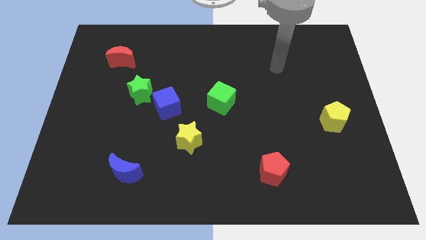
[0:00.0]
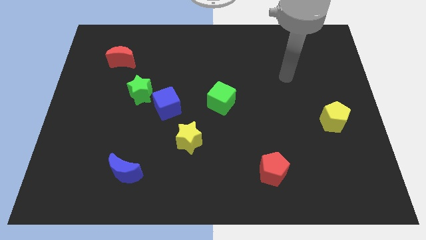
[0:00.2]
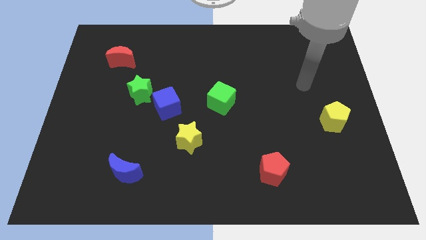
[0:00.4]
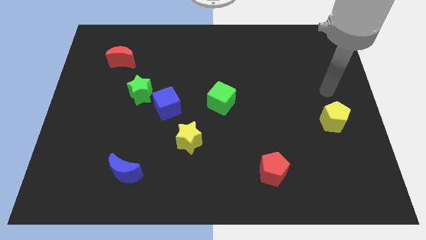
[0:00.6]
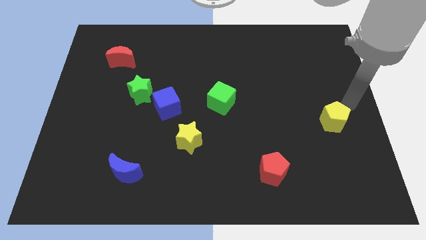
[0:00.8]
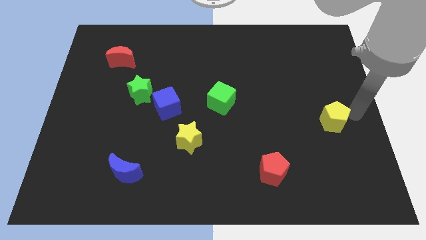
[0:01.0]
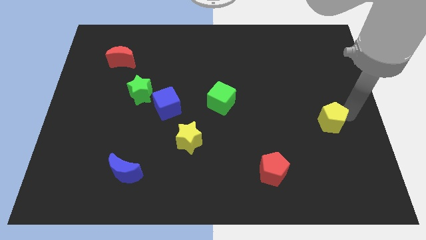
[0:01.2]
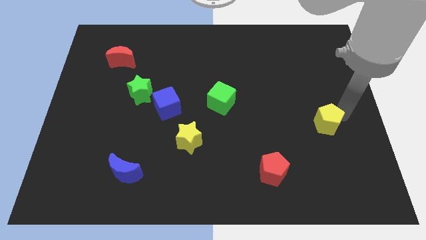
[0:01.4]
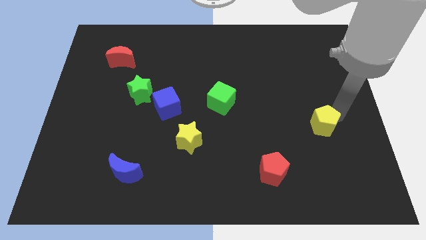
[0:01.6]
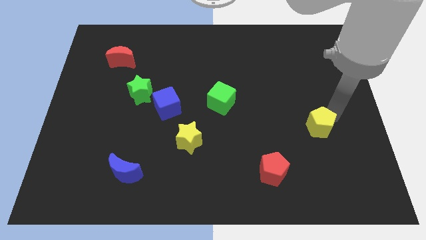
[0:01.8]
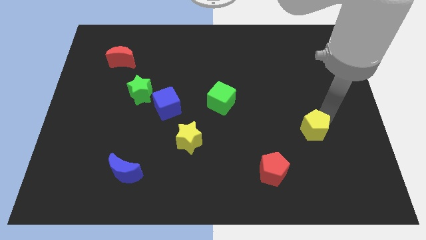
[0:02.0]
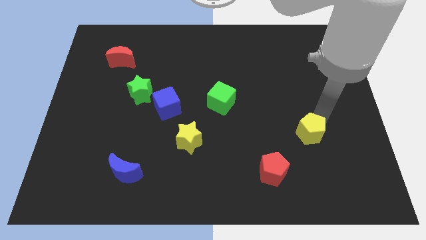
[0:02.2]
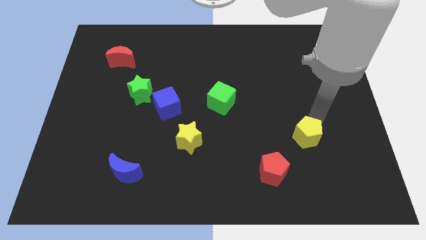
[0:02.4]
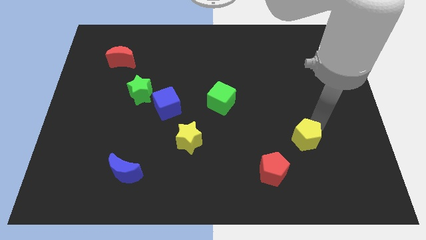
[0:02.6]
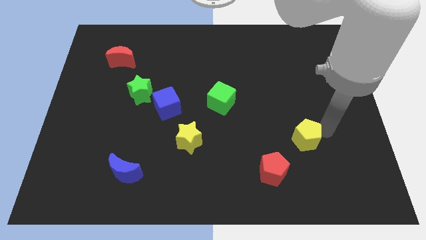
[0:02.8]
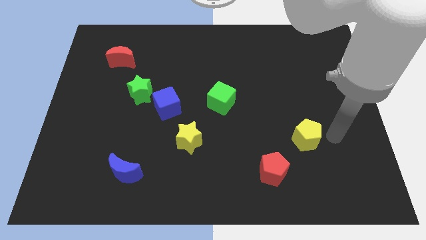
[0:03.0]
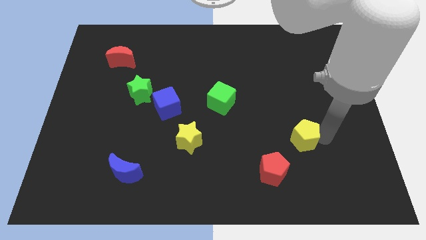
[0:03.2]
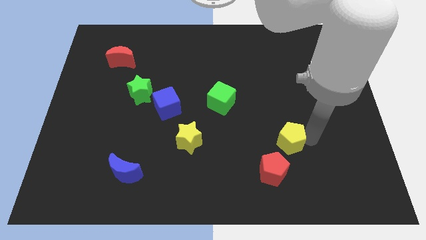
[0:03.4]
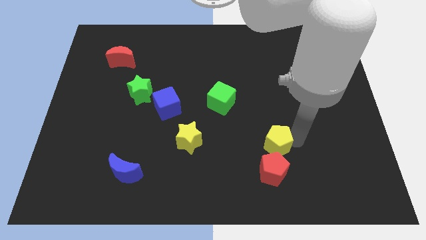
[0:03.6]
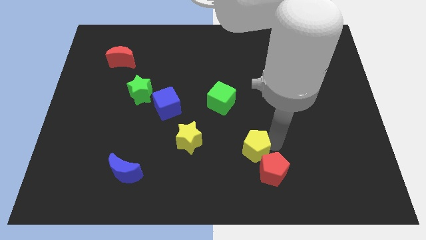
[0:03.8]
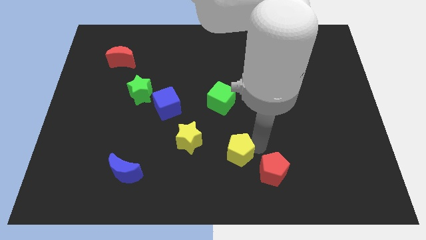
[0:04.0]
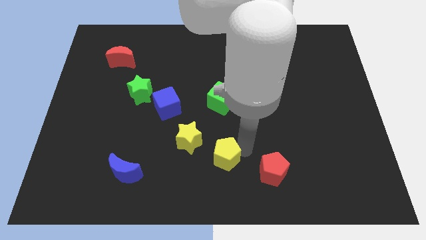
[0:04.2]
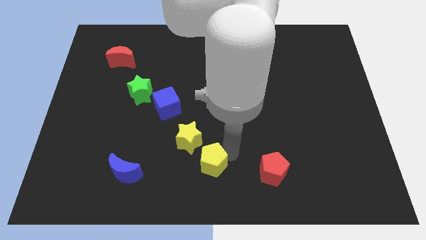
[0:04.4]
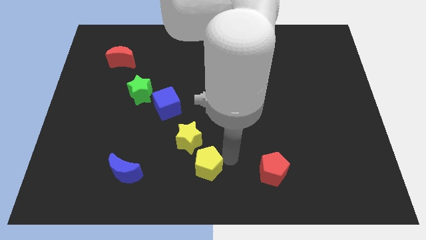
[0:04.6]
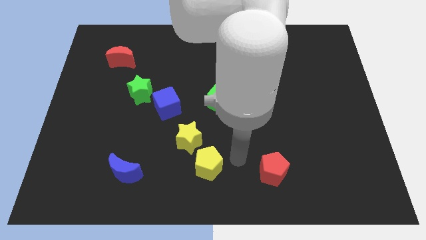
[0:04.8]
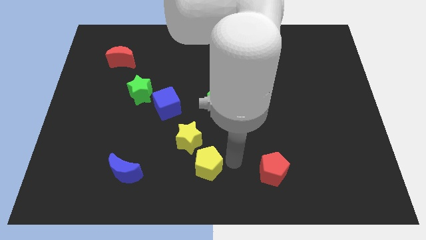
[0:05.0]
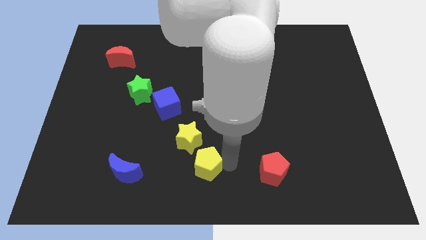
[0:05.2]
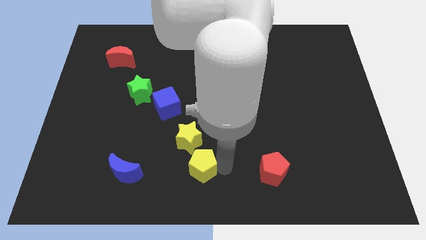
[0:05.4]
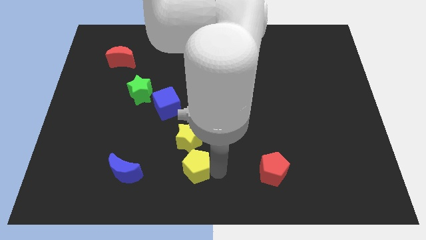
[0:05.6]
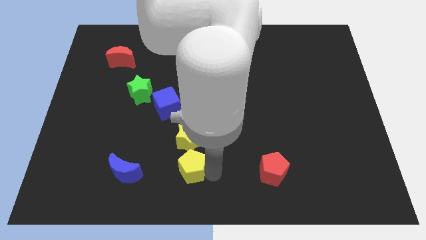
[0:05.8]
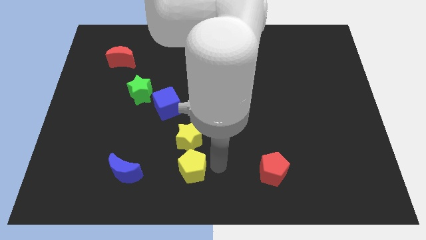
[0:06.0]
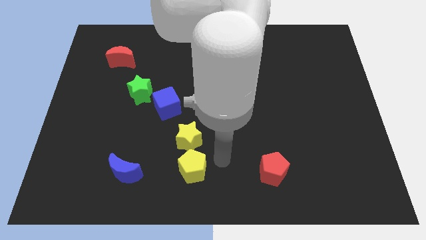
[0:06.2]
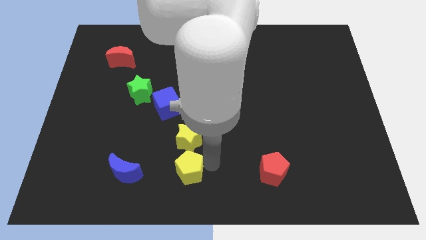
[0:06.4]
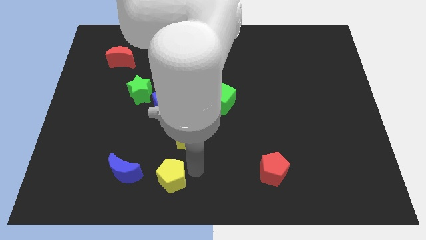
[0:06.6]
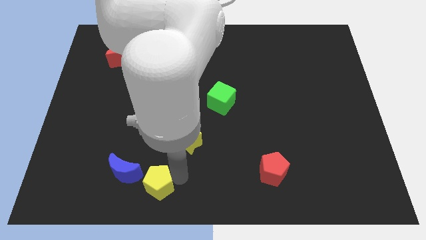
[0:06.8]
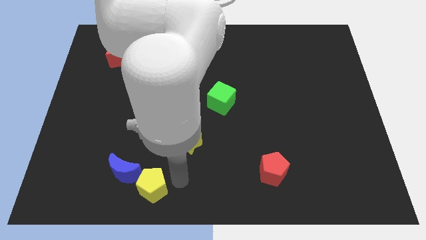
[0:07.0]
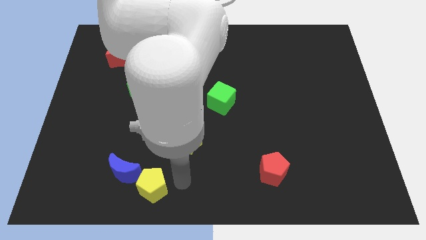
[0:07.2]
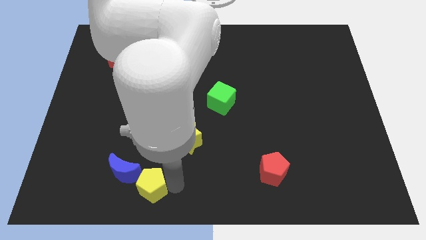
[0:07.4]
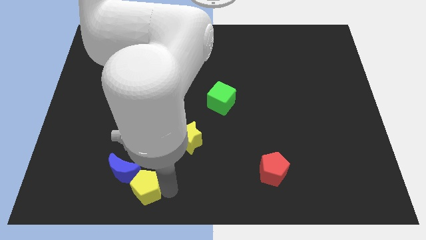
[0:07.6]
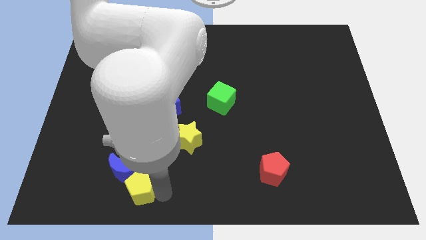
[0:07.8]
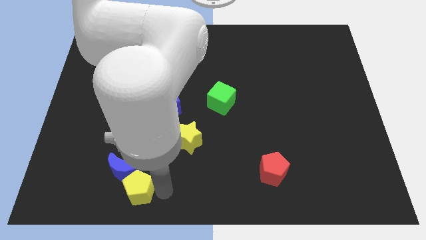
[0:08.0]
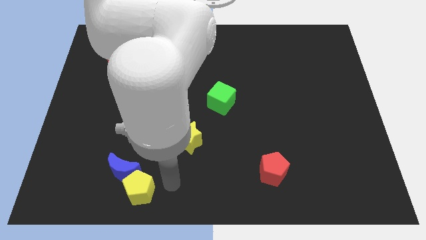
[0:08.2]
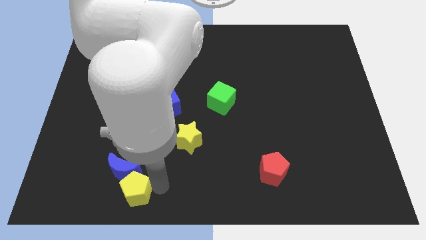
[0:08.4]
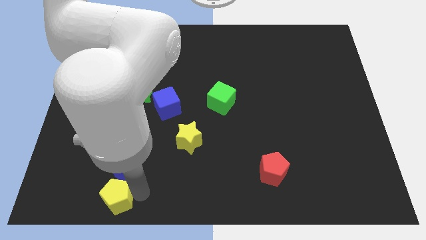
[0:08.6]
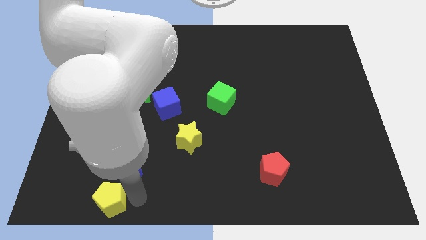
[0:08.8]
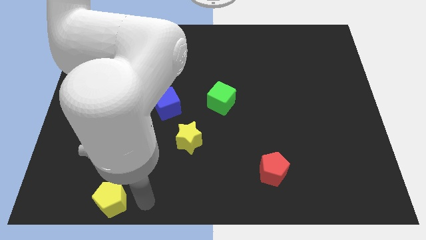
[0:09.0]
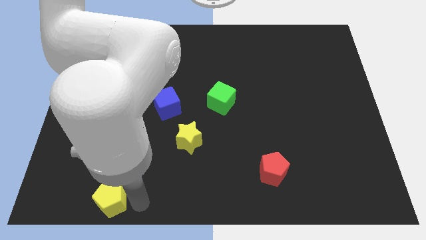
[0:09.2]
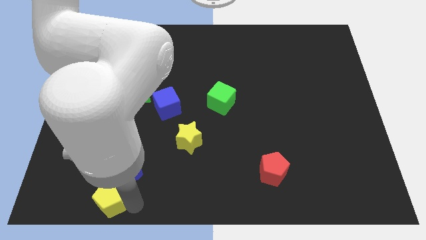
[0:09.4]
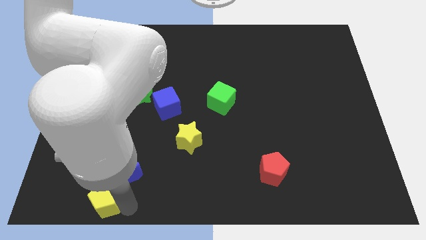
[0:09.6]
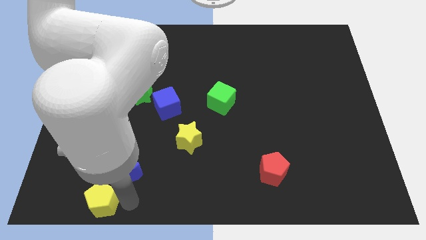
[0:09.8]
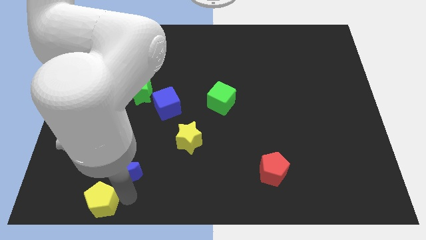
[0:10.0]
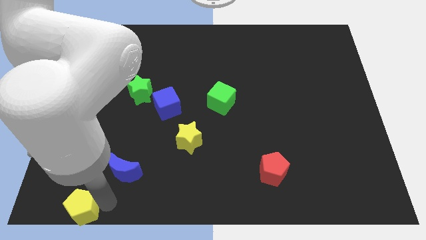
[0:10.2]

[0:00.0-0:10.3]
slide the yellow pentagon to the bottom left corner
